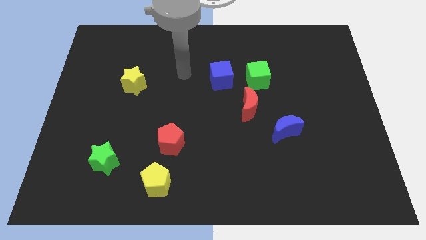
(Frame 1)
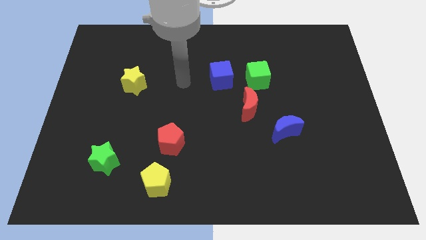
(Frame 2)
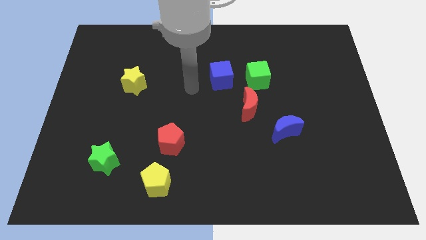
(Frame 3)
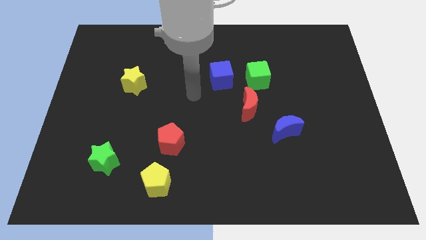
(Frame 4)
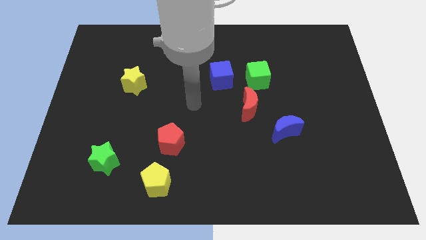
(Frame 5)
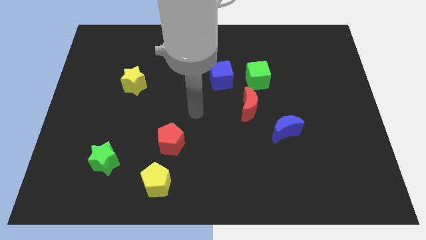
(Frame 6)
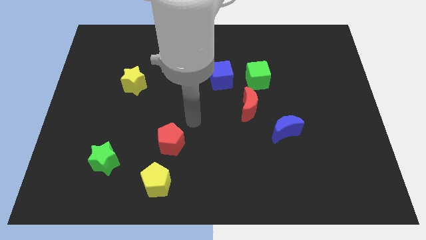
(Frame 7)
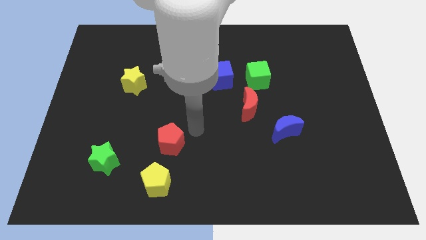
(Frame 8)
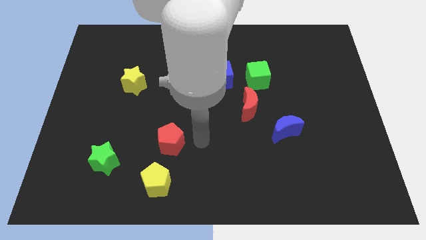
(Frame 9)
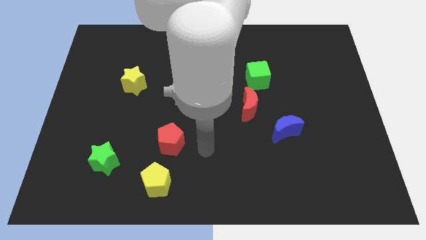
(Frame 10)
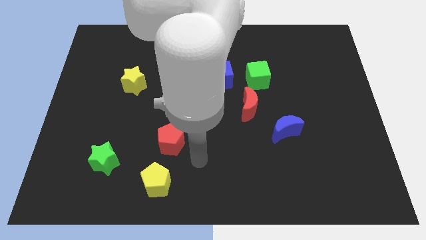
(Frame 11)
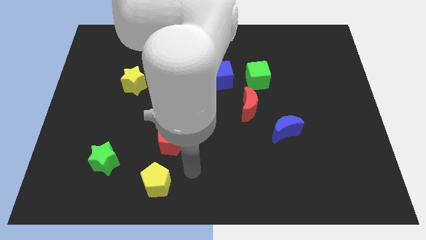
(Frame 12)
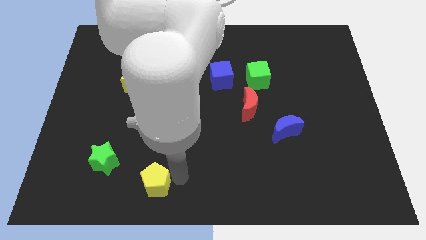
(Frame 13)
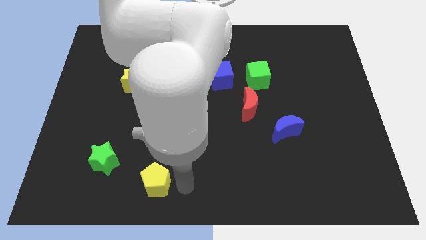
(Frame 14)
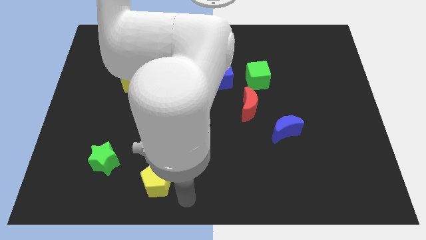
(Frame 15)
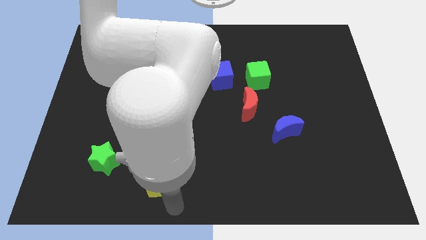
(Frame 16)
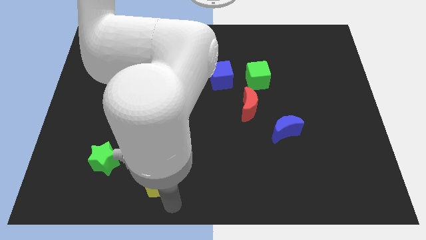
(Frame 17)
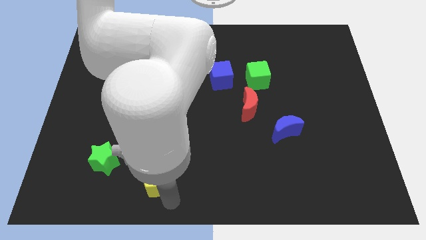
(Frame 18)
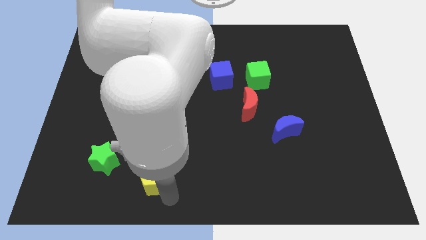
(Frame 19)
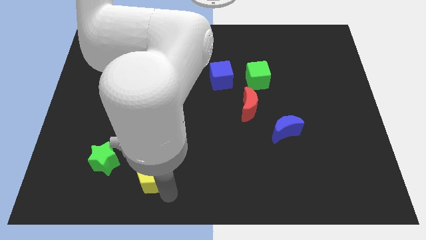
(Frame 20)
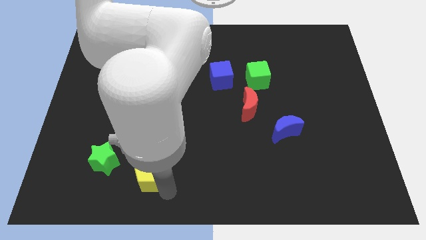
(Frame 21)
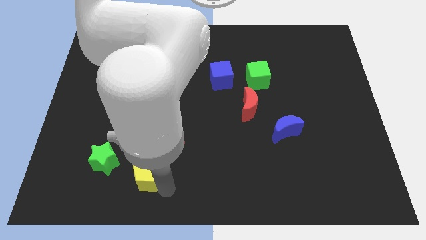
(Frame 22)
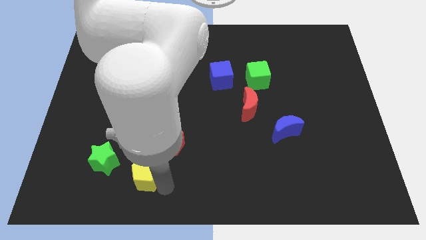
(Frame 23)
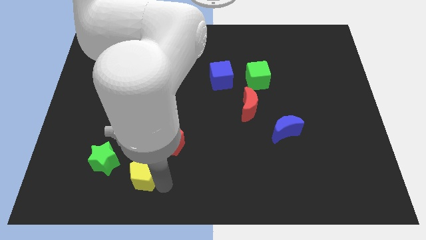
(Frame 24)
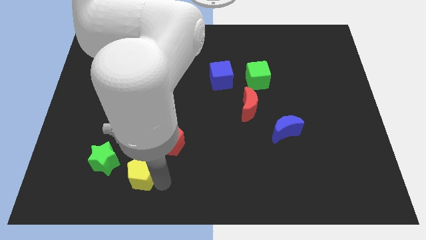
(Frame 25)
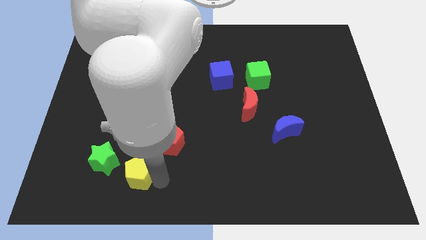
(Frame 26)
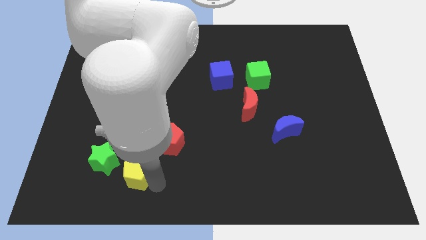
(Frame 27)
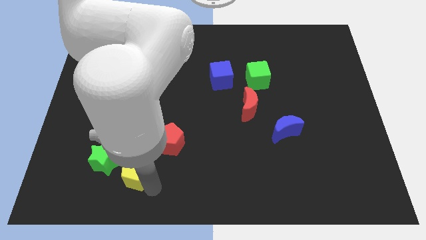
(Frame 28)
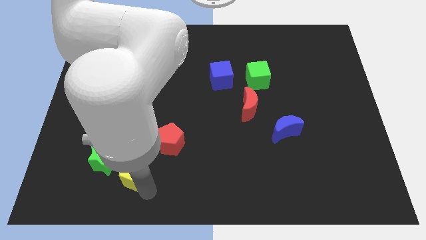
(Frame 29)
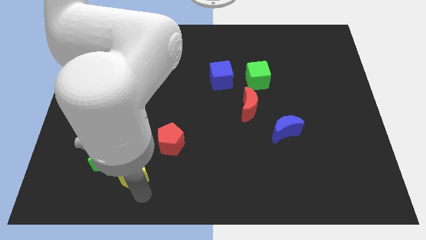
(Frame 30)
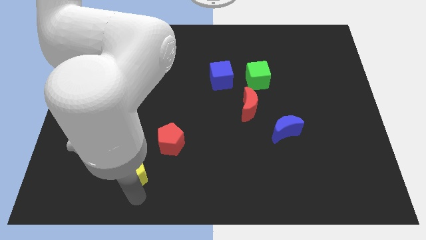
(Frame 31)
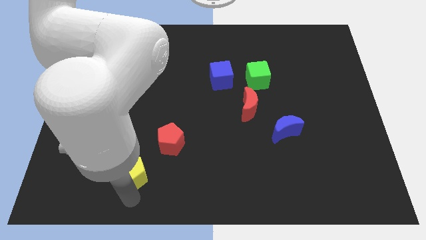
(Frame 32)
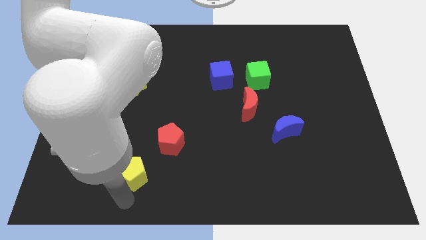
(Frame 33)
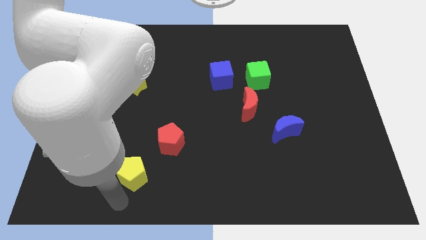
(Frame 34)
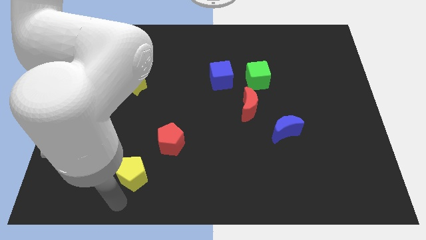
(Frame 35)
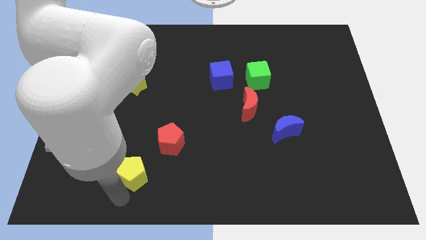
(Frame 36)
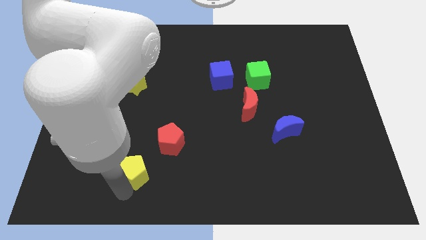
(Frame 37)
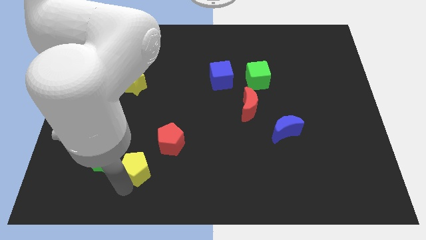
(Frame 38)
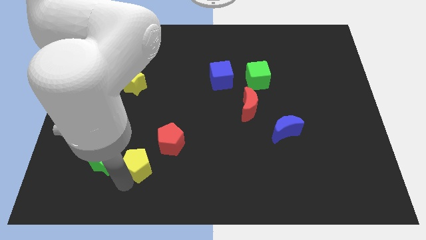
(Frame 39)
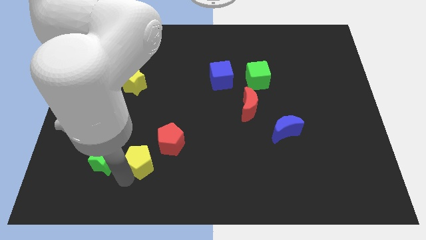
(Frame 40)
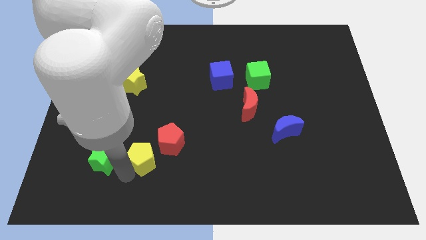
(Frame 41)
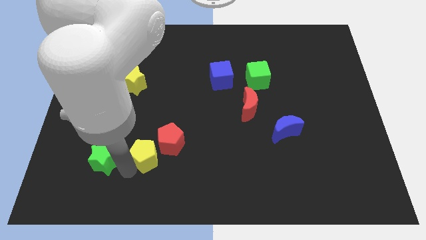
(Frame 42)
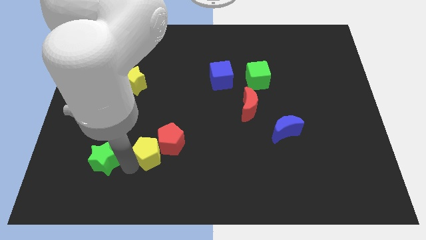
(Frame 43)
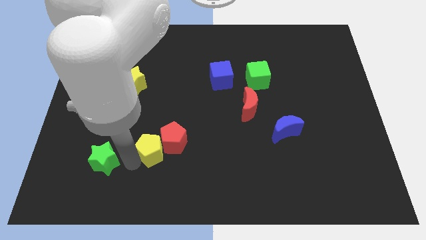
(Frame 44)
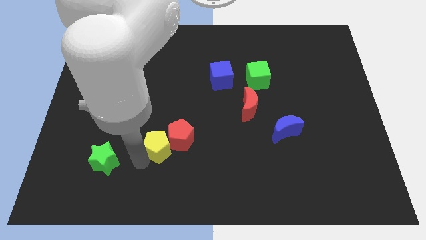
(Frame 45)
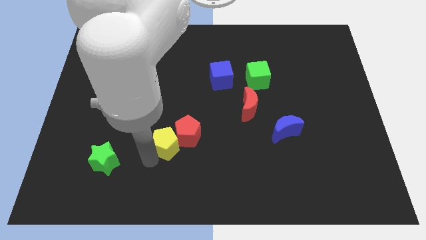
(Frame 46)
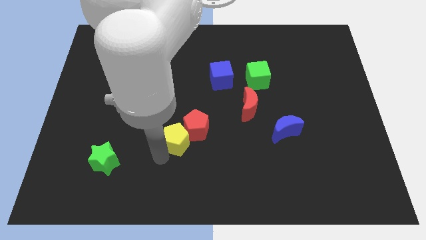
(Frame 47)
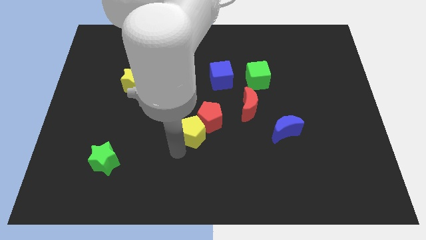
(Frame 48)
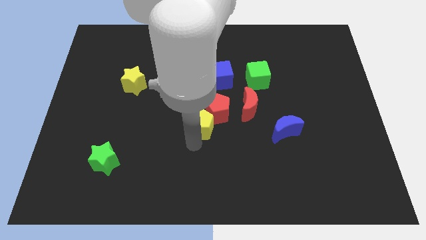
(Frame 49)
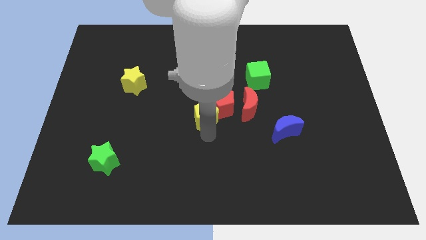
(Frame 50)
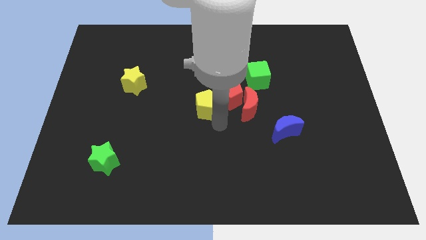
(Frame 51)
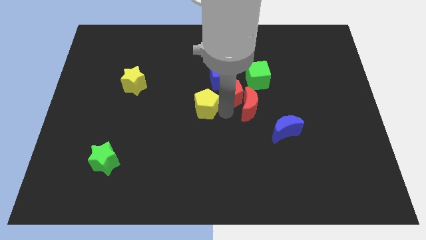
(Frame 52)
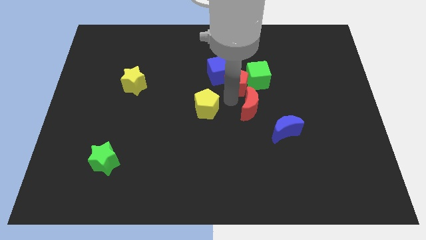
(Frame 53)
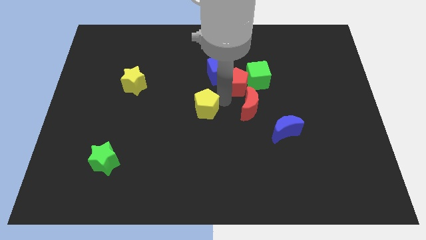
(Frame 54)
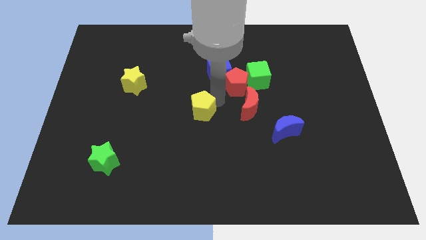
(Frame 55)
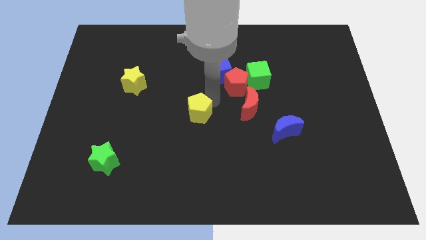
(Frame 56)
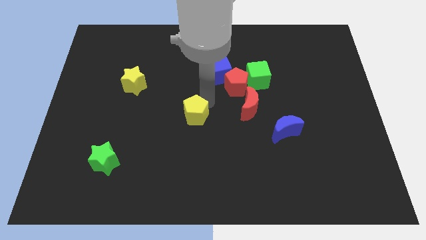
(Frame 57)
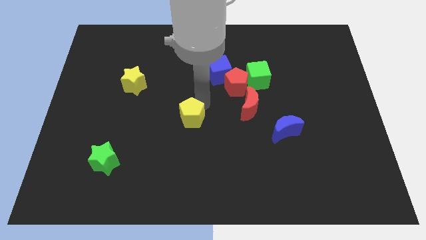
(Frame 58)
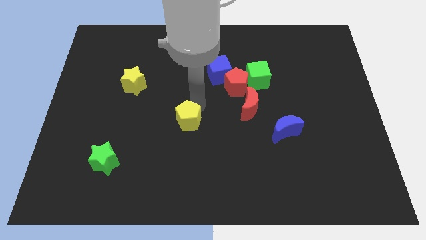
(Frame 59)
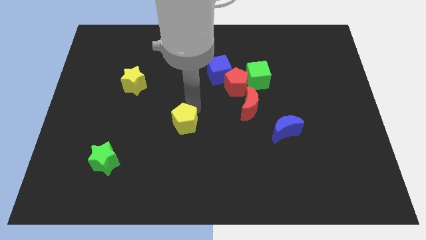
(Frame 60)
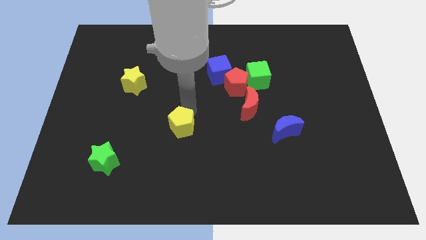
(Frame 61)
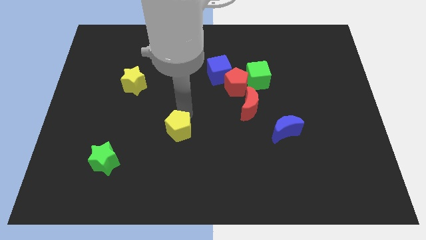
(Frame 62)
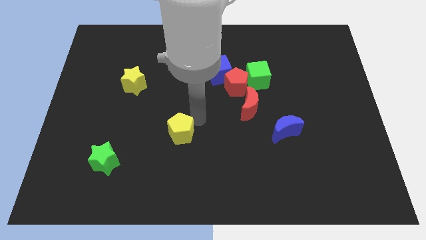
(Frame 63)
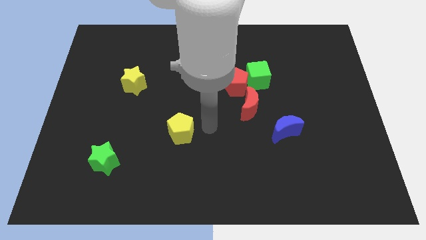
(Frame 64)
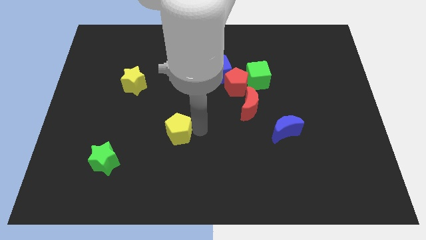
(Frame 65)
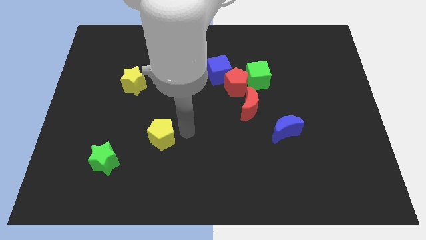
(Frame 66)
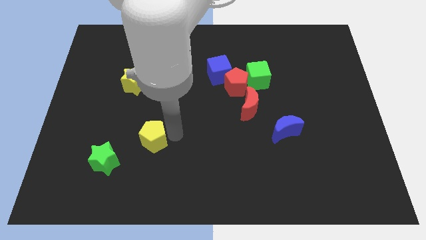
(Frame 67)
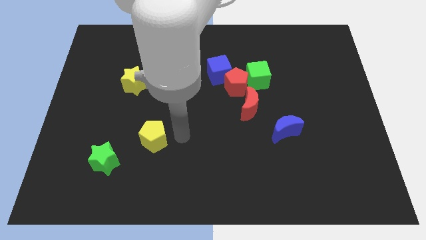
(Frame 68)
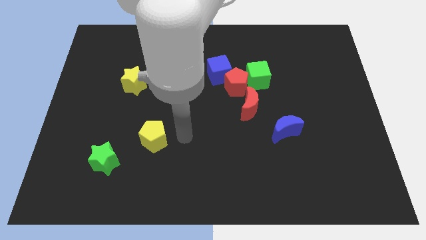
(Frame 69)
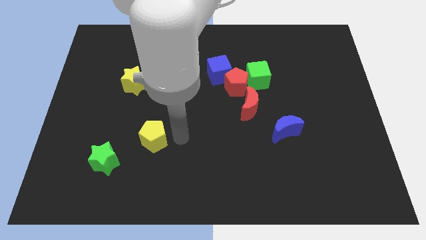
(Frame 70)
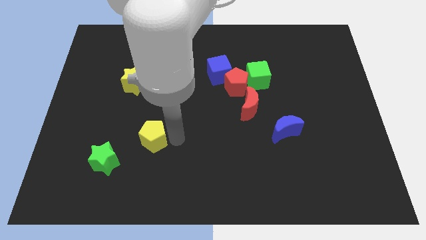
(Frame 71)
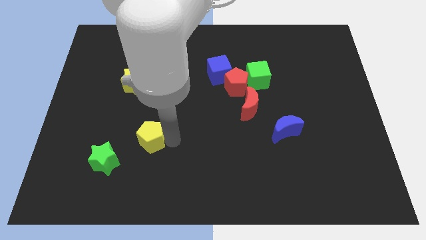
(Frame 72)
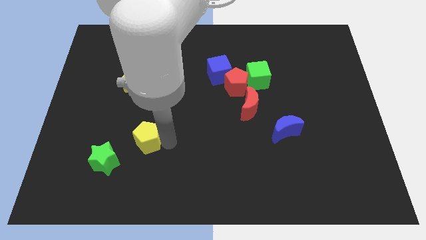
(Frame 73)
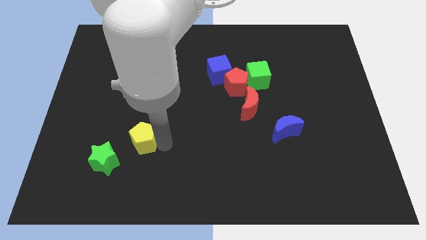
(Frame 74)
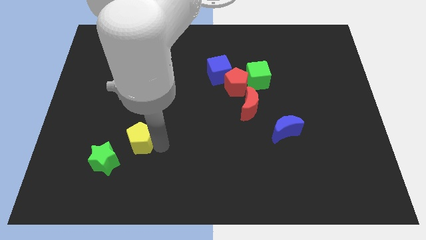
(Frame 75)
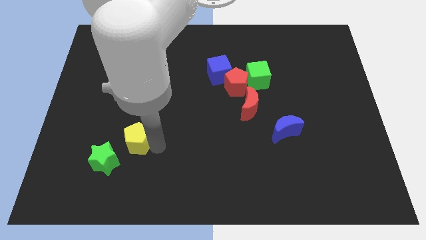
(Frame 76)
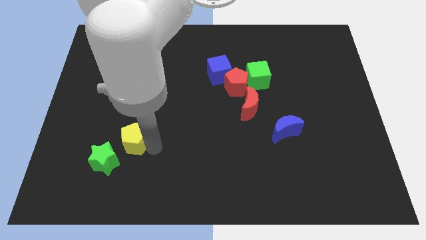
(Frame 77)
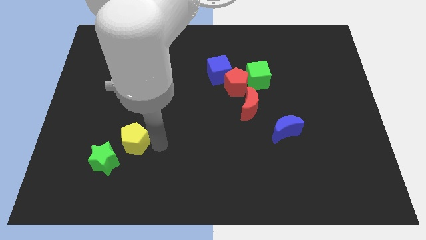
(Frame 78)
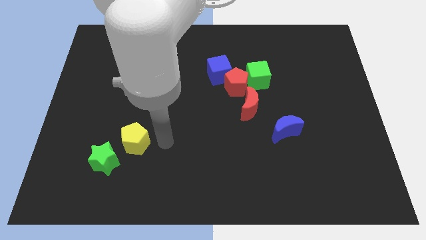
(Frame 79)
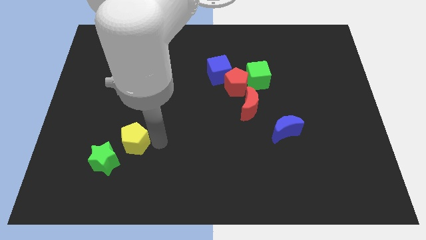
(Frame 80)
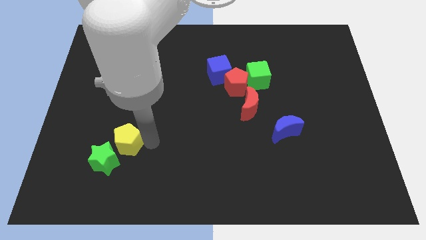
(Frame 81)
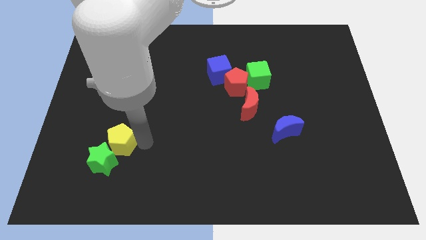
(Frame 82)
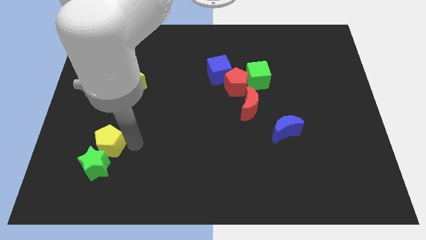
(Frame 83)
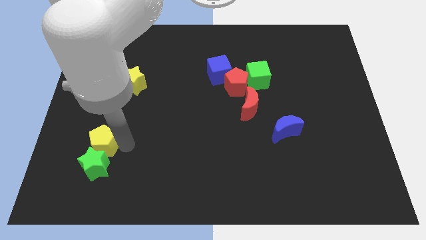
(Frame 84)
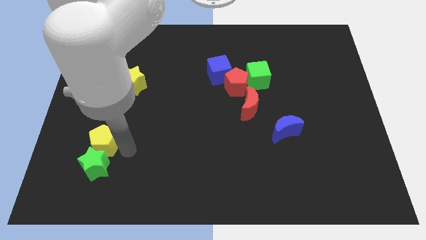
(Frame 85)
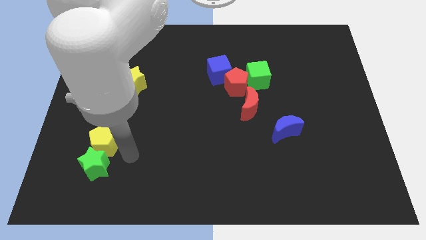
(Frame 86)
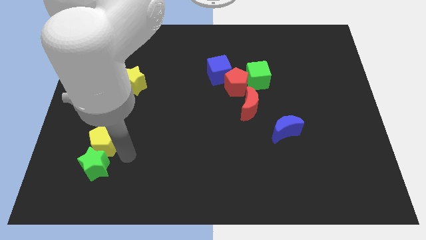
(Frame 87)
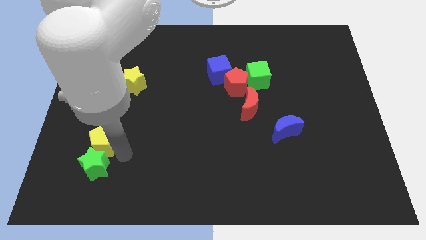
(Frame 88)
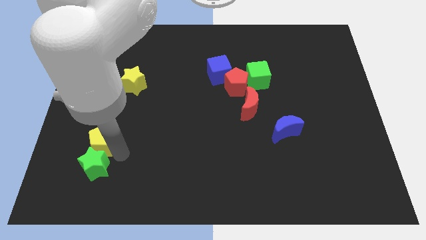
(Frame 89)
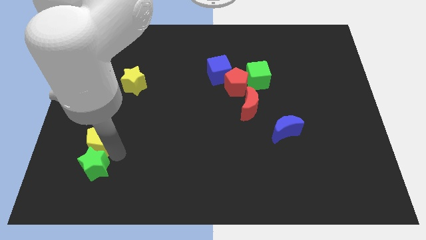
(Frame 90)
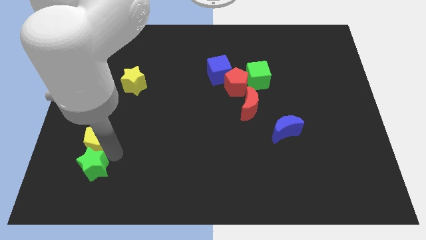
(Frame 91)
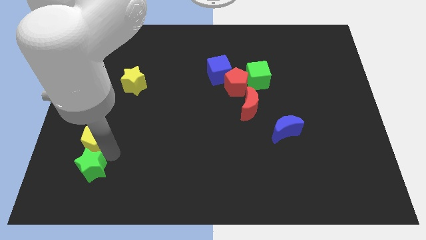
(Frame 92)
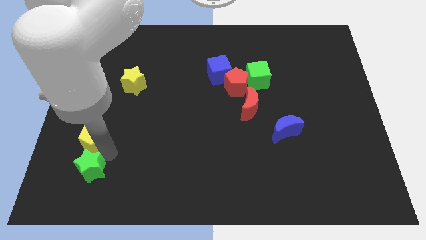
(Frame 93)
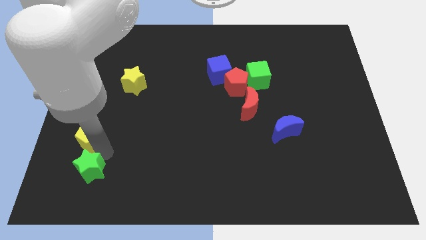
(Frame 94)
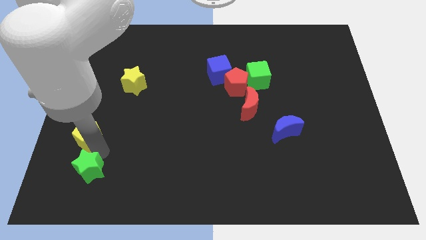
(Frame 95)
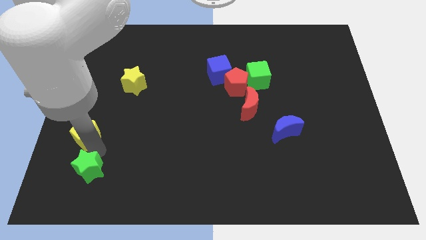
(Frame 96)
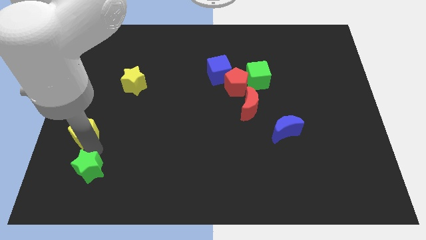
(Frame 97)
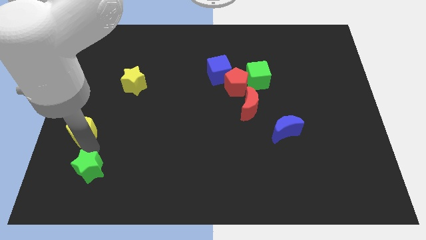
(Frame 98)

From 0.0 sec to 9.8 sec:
push the yellow pentagon to the left side of the board
